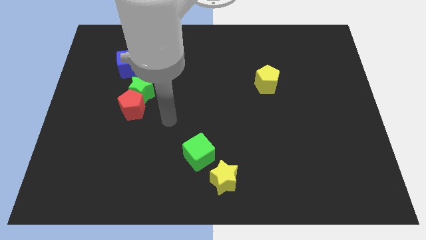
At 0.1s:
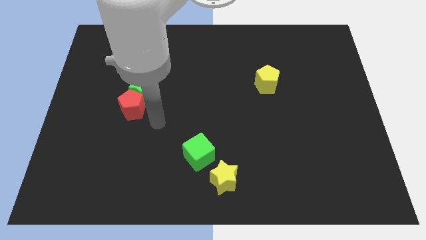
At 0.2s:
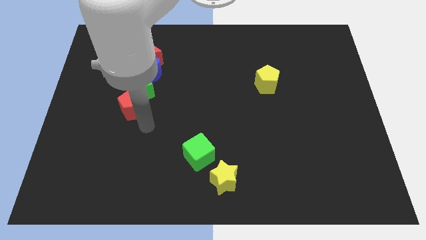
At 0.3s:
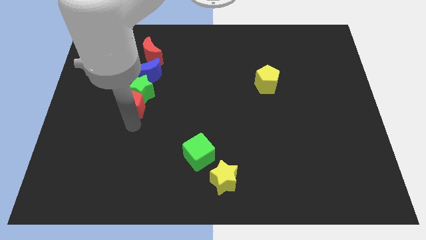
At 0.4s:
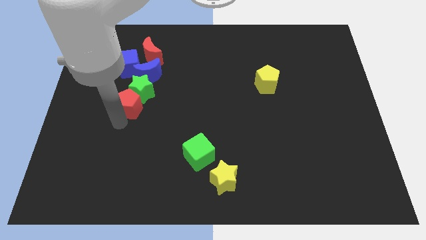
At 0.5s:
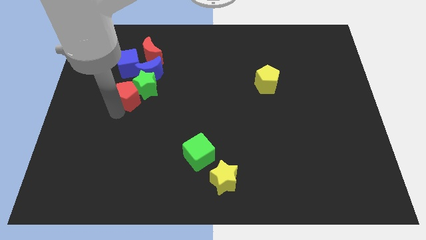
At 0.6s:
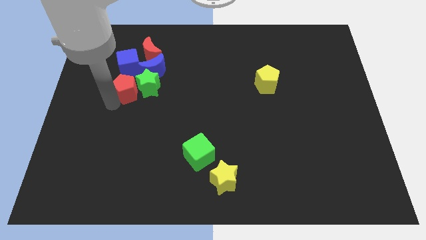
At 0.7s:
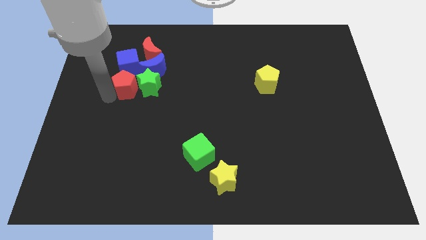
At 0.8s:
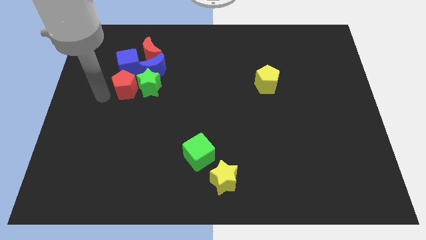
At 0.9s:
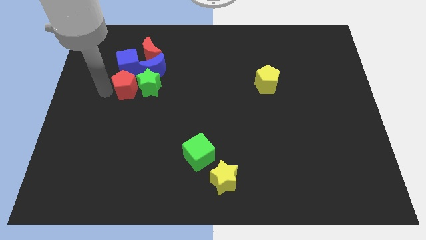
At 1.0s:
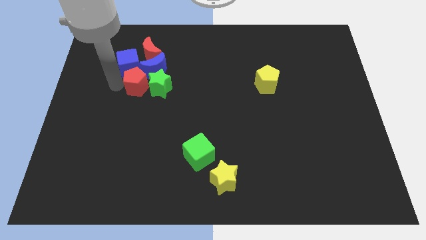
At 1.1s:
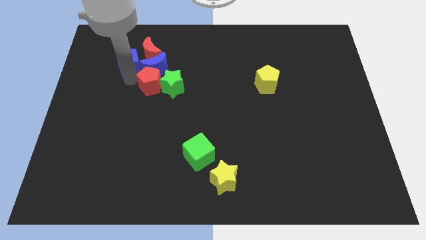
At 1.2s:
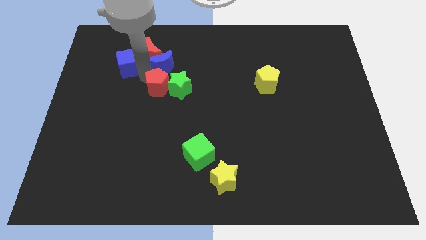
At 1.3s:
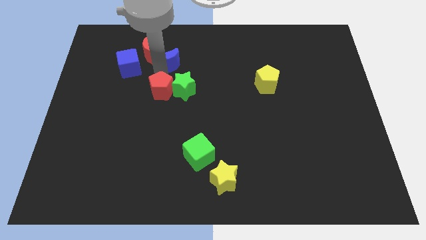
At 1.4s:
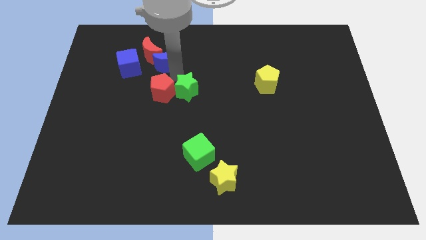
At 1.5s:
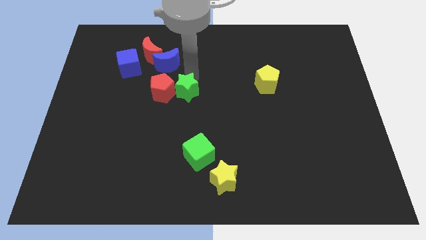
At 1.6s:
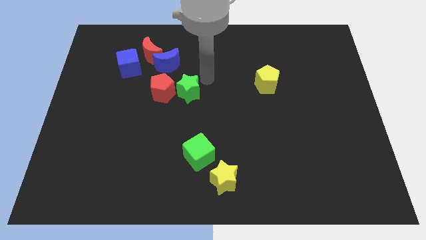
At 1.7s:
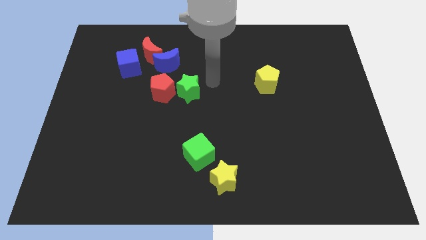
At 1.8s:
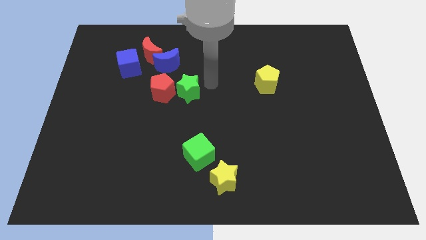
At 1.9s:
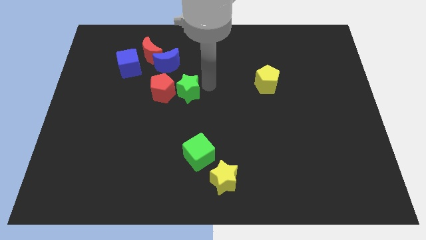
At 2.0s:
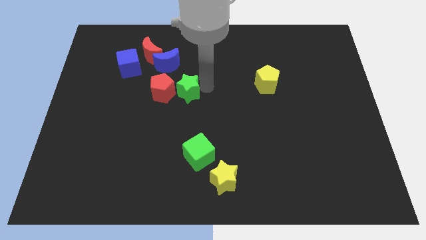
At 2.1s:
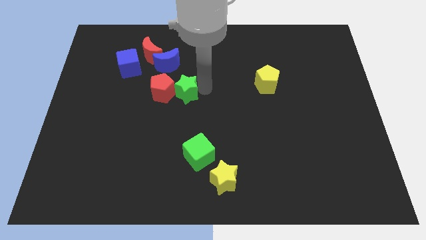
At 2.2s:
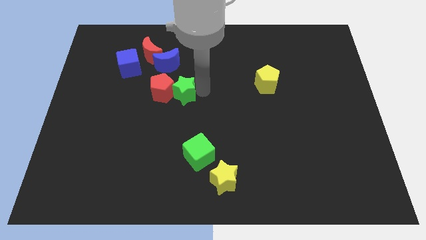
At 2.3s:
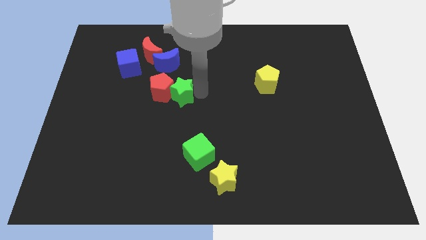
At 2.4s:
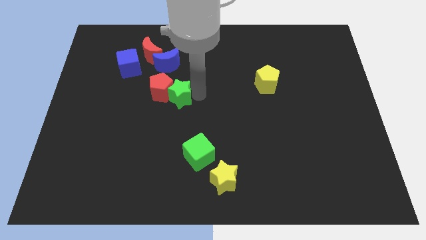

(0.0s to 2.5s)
slightly slide the green star downwards and right

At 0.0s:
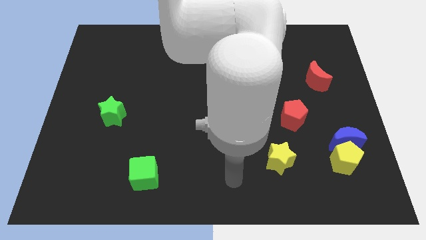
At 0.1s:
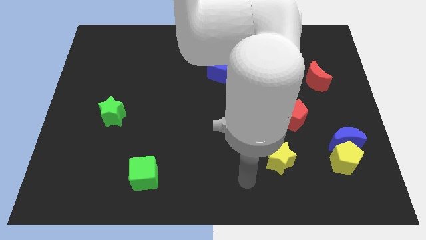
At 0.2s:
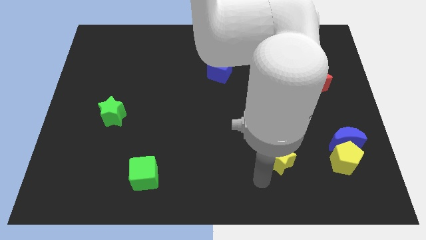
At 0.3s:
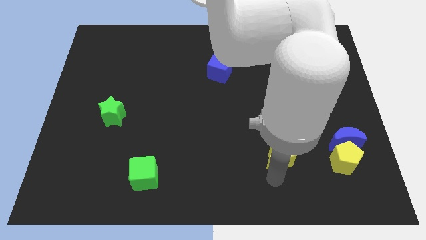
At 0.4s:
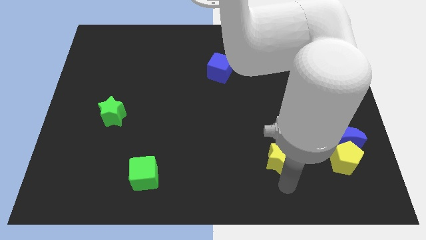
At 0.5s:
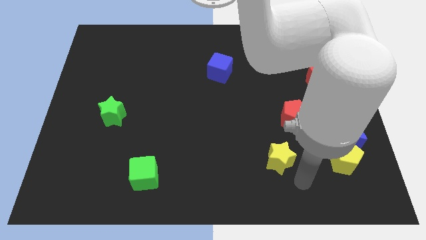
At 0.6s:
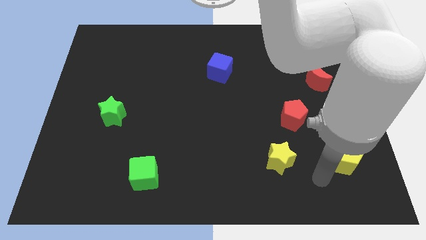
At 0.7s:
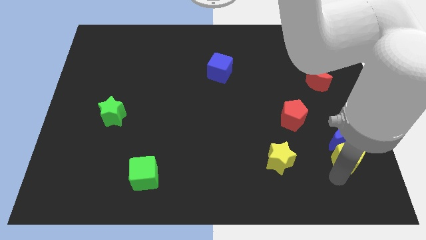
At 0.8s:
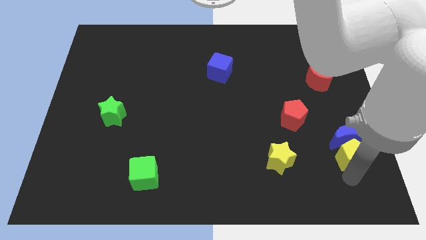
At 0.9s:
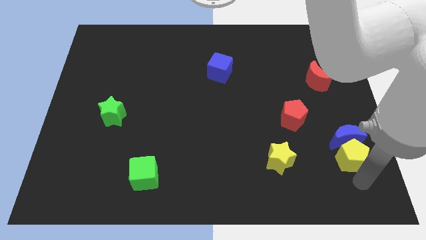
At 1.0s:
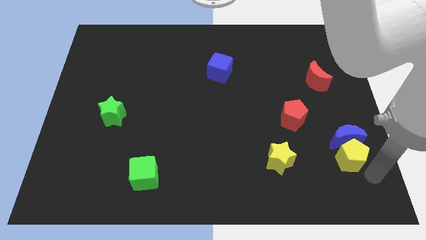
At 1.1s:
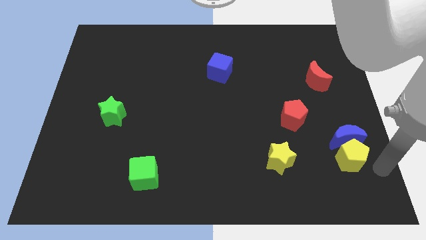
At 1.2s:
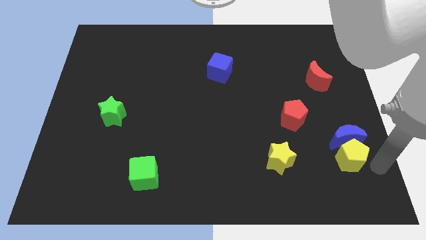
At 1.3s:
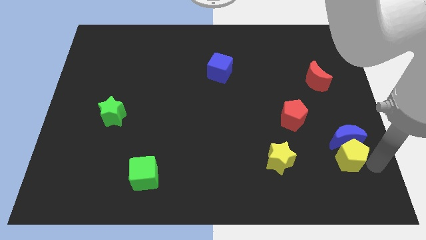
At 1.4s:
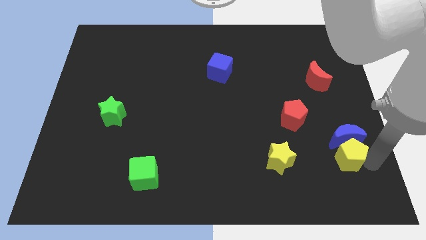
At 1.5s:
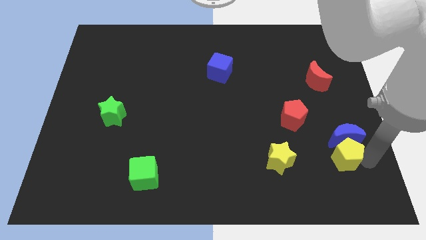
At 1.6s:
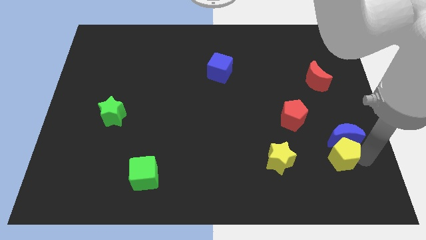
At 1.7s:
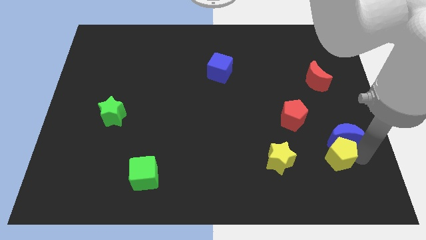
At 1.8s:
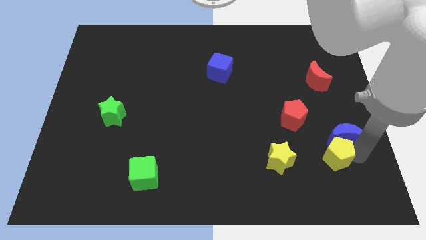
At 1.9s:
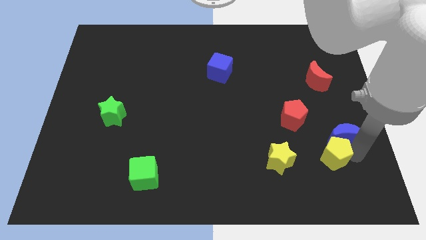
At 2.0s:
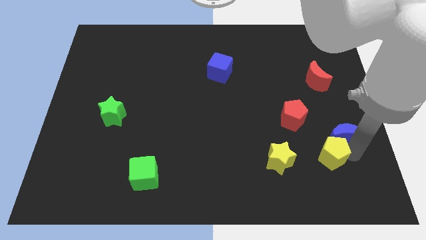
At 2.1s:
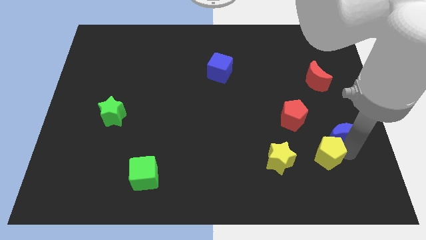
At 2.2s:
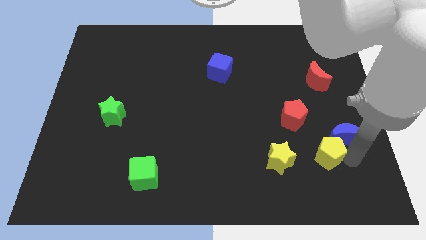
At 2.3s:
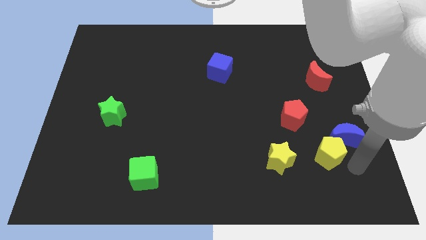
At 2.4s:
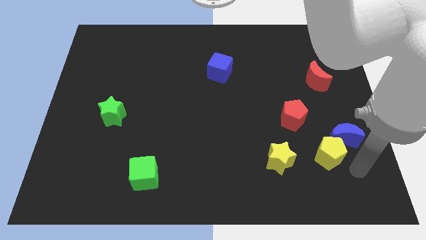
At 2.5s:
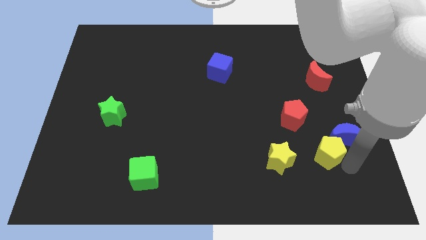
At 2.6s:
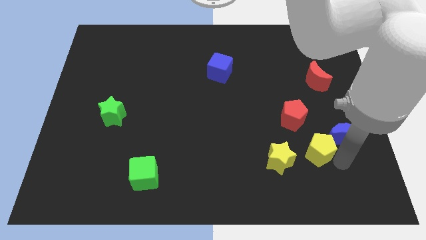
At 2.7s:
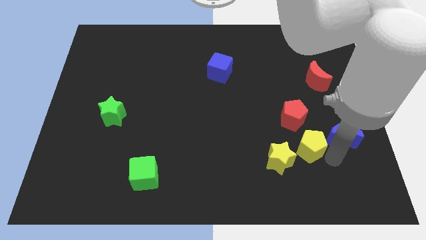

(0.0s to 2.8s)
move the yellow pentagon up and to the left somewhat

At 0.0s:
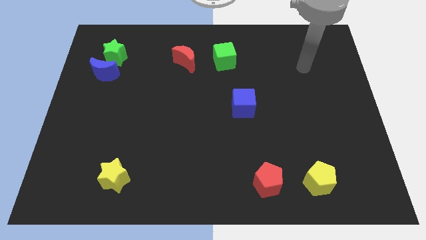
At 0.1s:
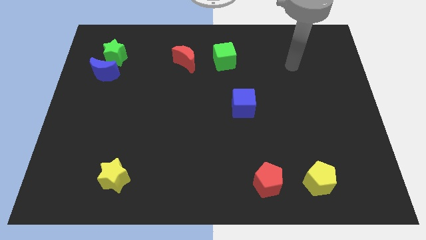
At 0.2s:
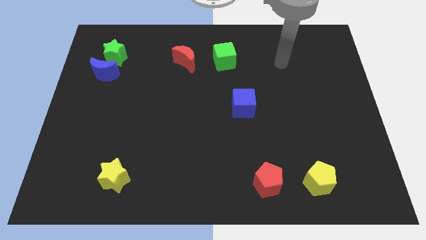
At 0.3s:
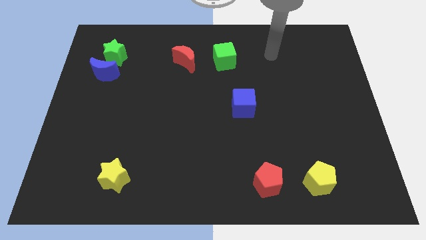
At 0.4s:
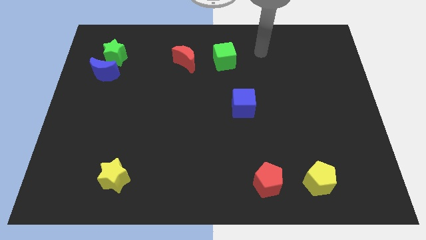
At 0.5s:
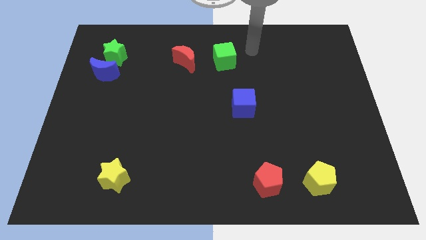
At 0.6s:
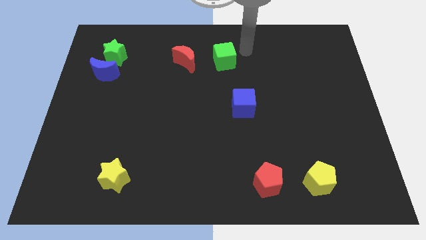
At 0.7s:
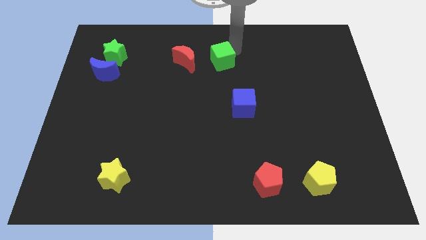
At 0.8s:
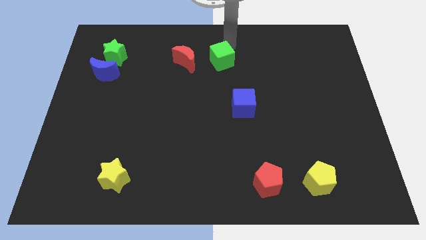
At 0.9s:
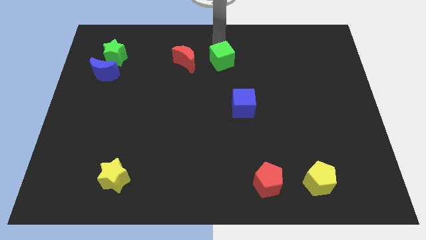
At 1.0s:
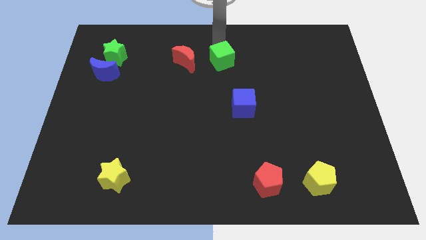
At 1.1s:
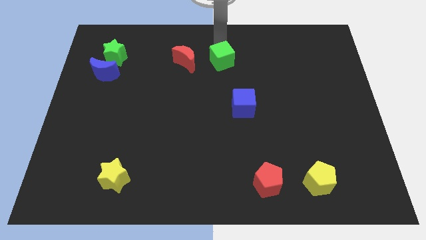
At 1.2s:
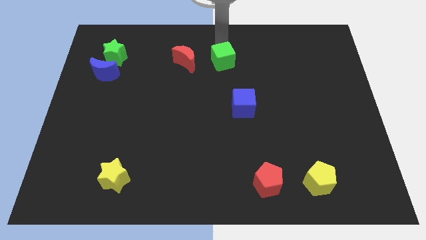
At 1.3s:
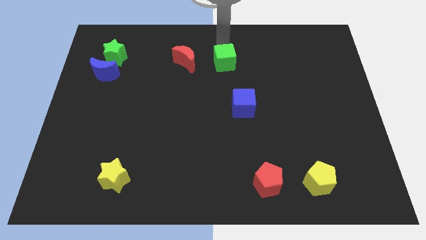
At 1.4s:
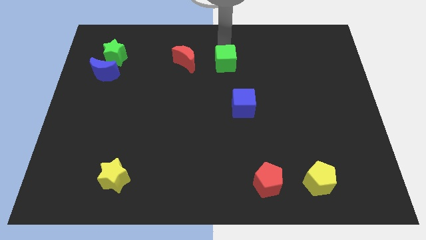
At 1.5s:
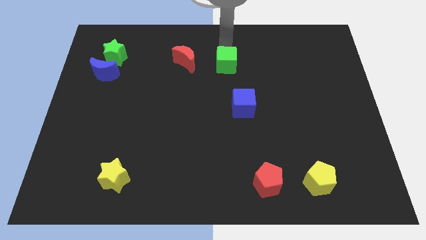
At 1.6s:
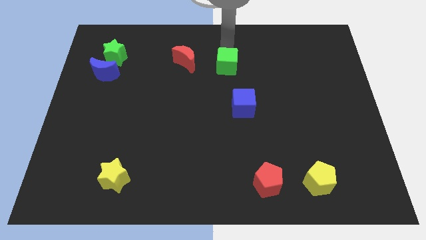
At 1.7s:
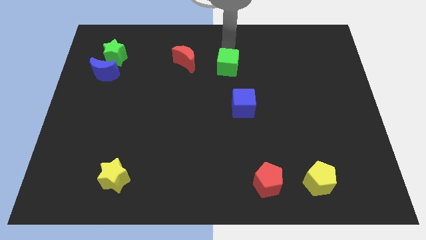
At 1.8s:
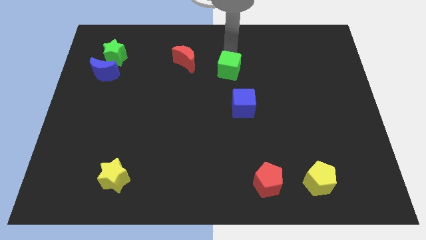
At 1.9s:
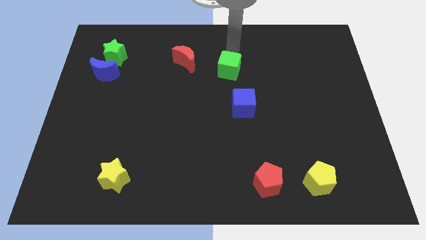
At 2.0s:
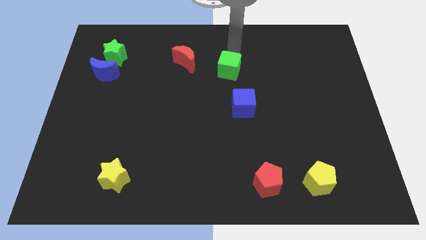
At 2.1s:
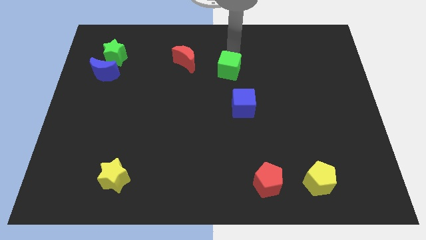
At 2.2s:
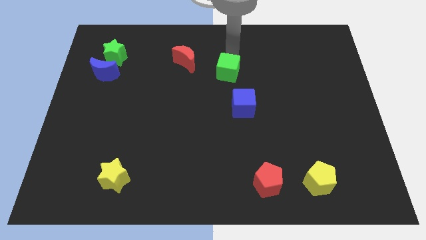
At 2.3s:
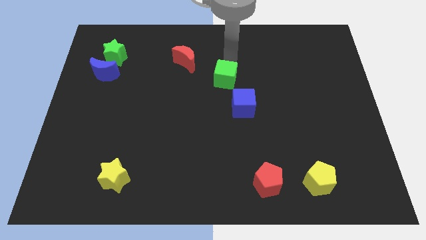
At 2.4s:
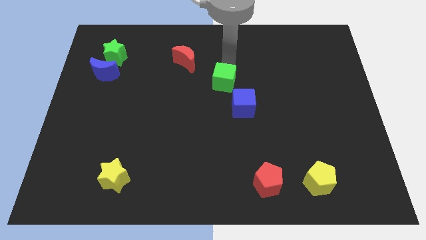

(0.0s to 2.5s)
push the green cube slightly down
